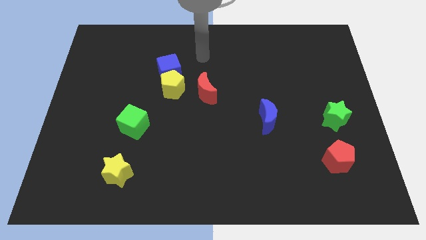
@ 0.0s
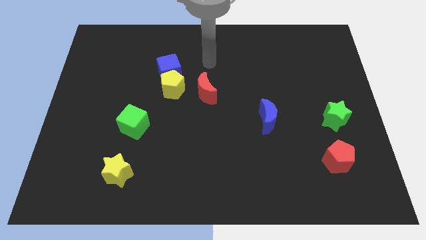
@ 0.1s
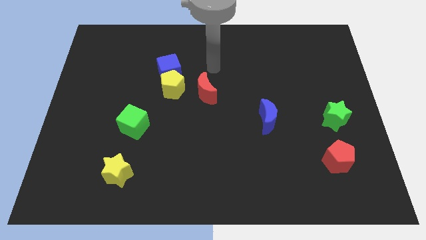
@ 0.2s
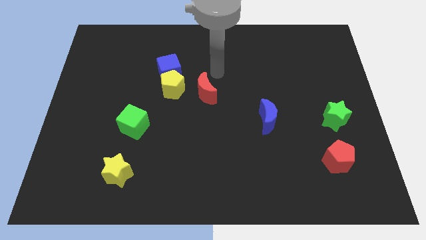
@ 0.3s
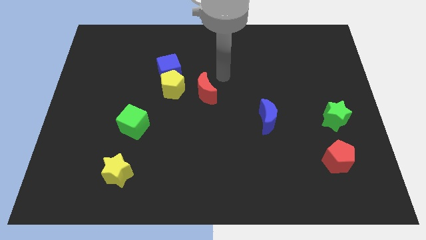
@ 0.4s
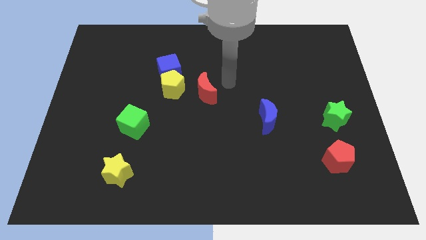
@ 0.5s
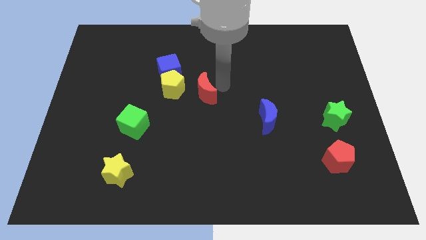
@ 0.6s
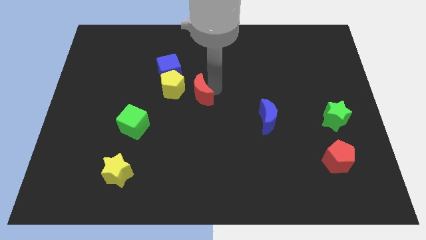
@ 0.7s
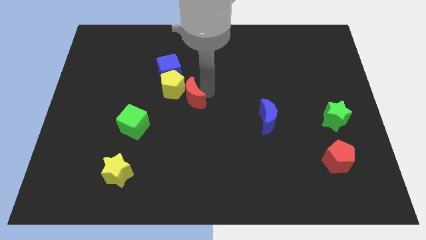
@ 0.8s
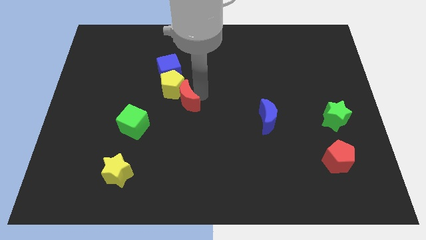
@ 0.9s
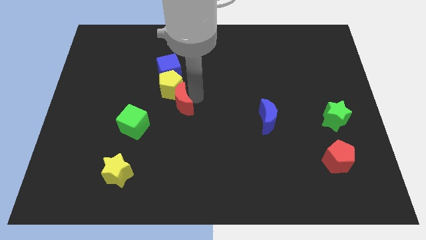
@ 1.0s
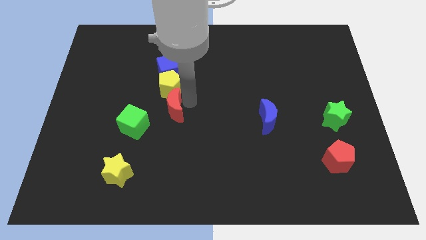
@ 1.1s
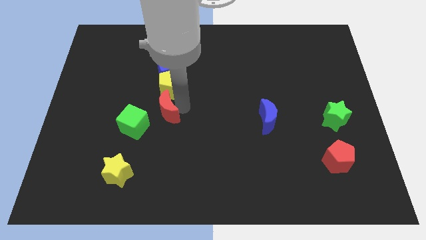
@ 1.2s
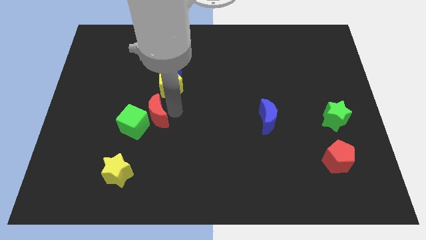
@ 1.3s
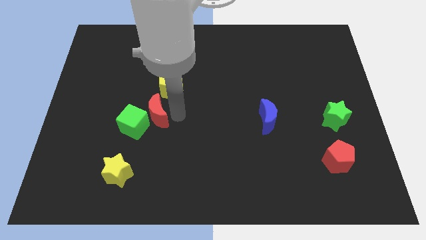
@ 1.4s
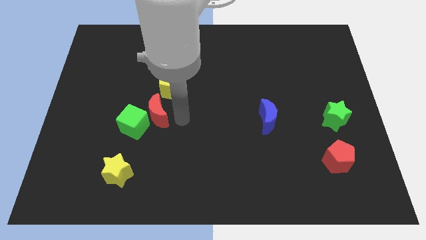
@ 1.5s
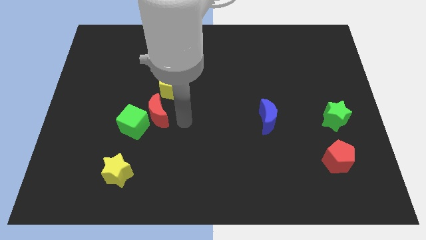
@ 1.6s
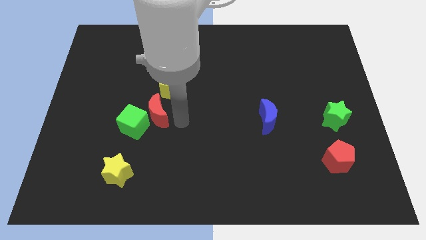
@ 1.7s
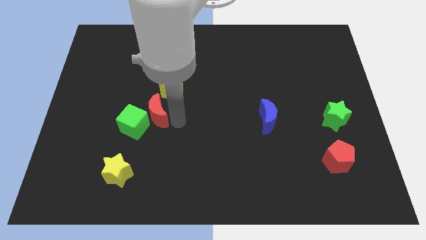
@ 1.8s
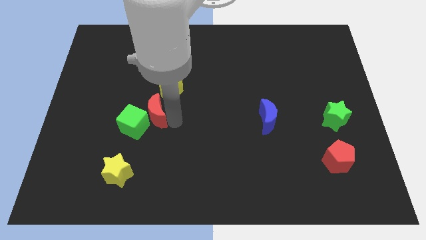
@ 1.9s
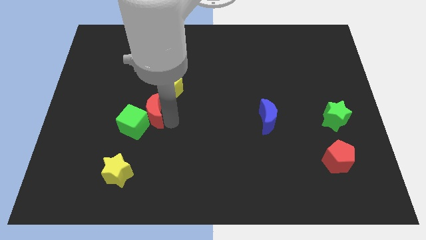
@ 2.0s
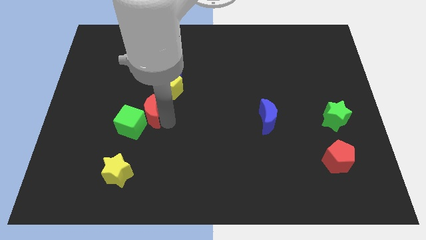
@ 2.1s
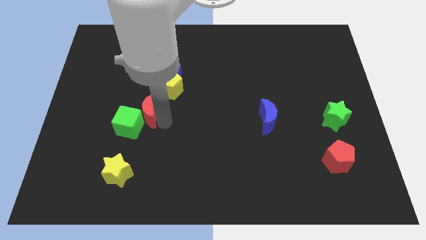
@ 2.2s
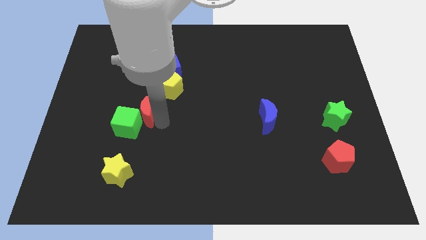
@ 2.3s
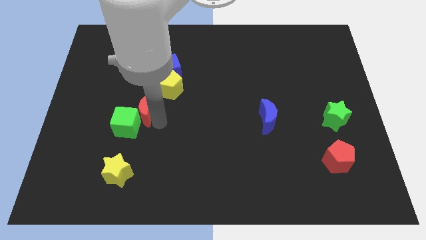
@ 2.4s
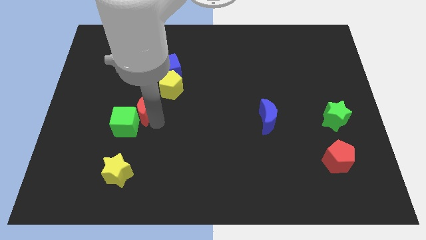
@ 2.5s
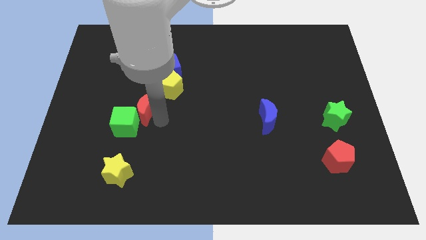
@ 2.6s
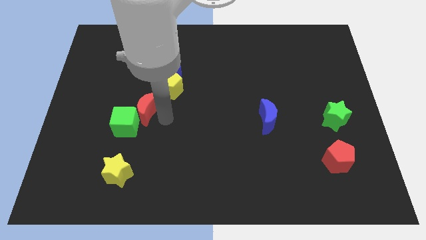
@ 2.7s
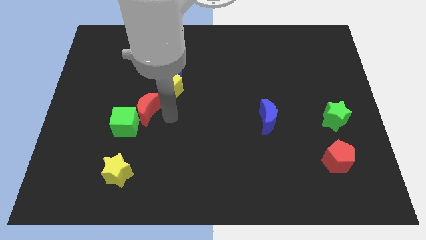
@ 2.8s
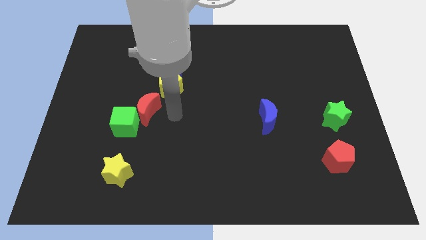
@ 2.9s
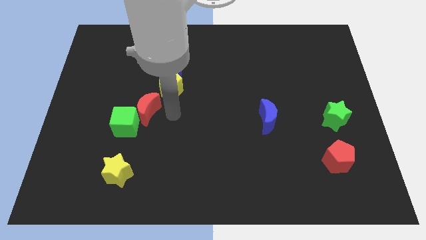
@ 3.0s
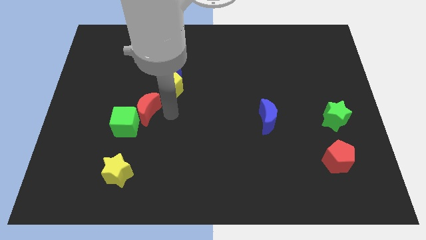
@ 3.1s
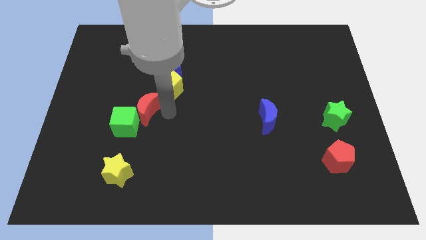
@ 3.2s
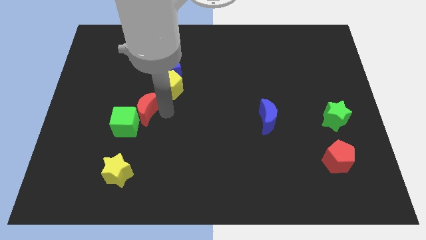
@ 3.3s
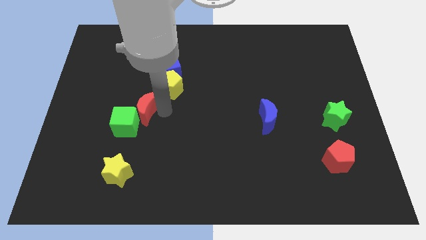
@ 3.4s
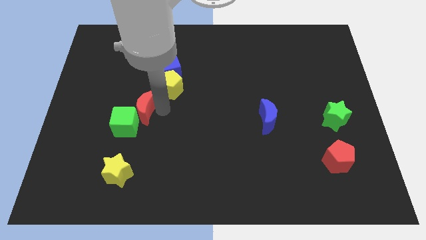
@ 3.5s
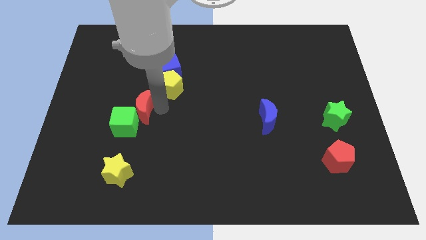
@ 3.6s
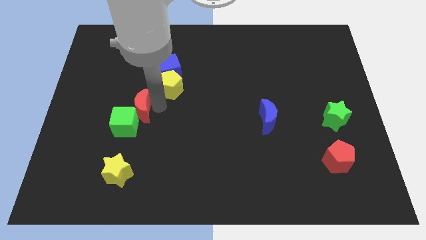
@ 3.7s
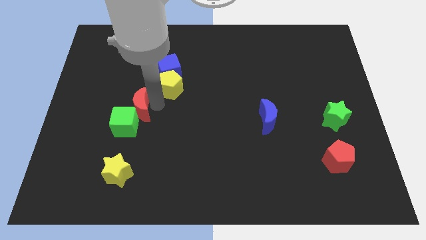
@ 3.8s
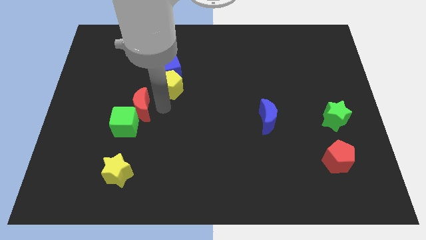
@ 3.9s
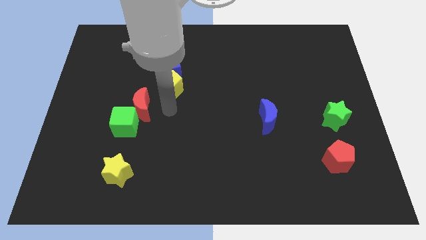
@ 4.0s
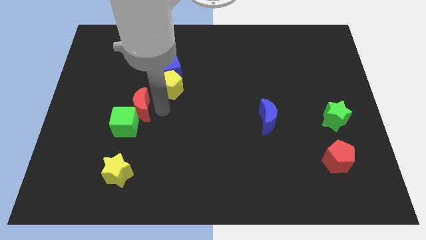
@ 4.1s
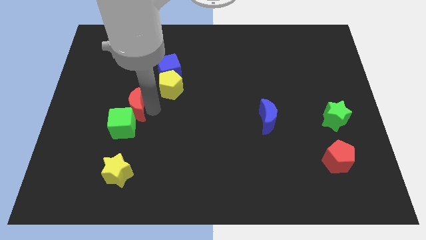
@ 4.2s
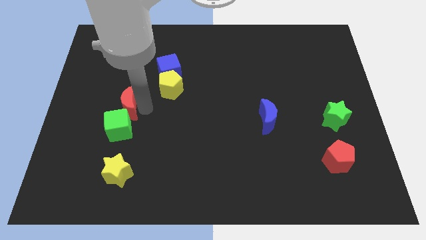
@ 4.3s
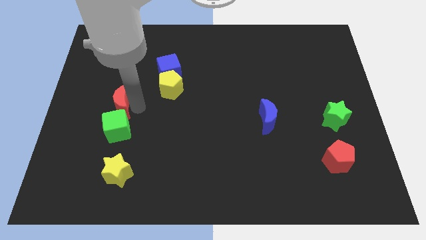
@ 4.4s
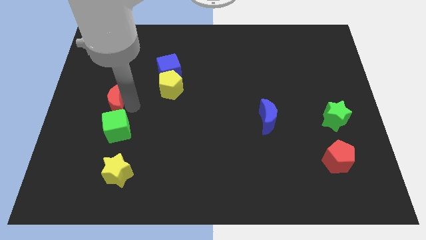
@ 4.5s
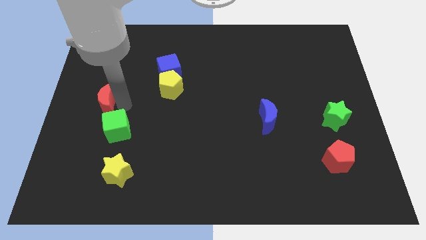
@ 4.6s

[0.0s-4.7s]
slide the red moon to the center left

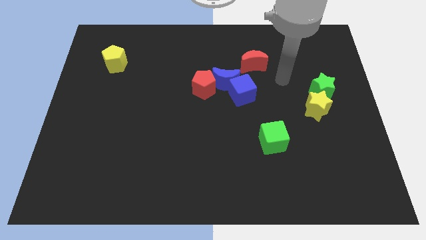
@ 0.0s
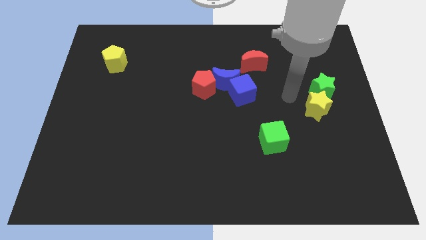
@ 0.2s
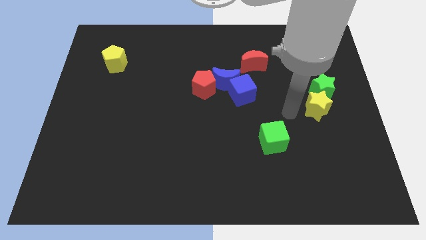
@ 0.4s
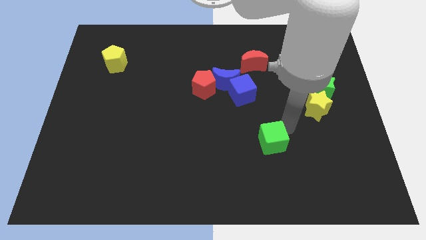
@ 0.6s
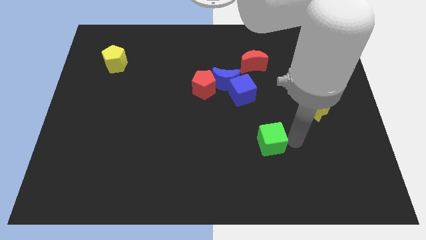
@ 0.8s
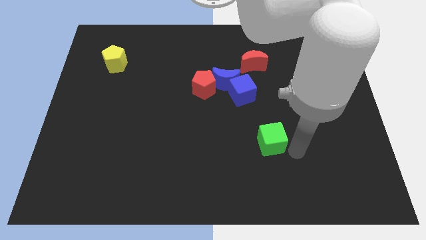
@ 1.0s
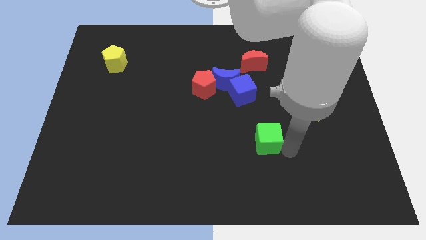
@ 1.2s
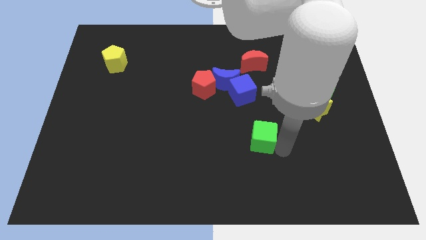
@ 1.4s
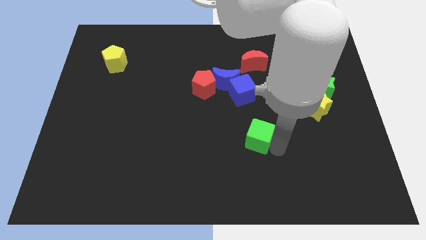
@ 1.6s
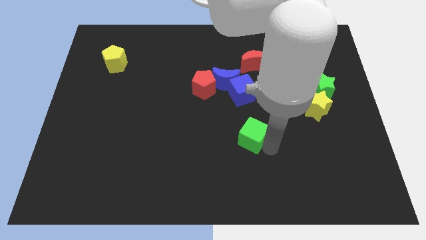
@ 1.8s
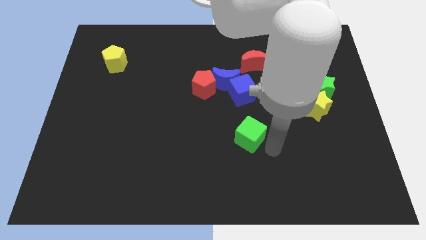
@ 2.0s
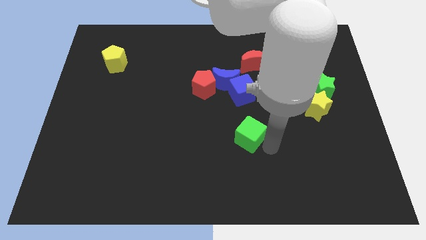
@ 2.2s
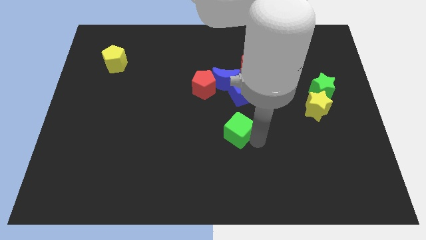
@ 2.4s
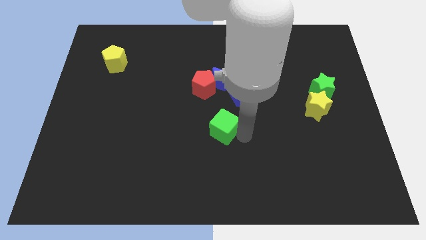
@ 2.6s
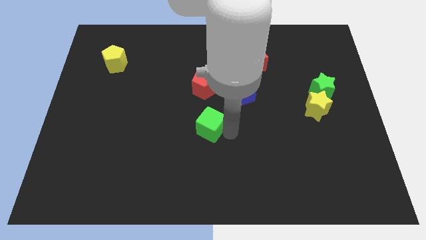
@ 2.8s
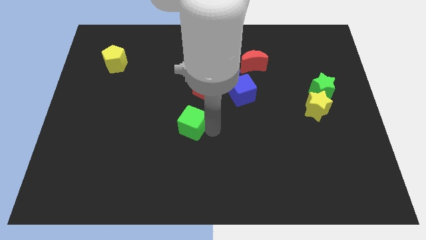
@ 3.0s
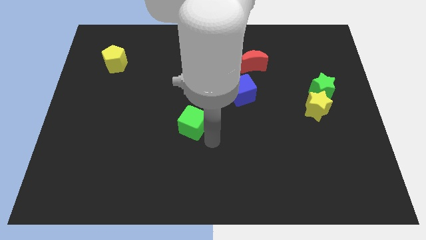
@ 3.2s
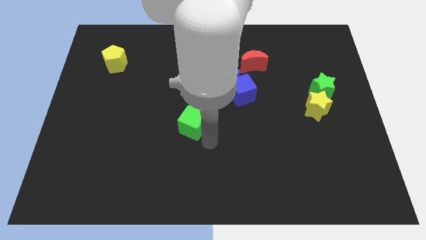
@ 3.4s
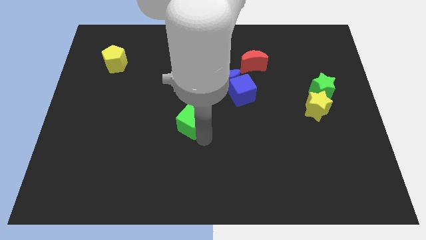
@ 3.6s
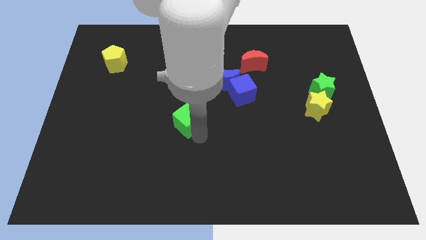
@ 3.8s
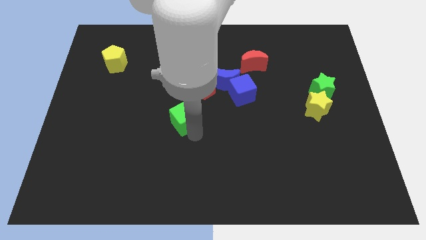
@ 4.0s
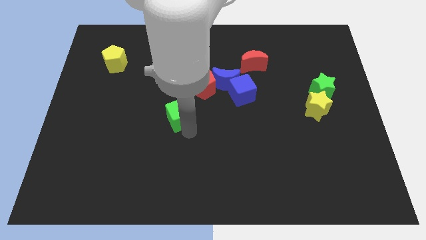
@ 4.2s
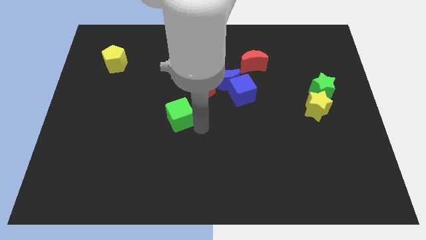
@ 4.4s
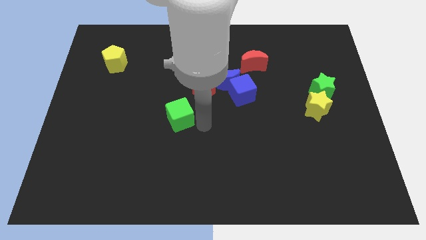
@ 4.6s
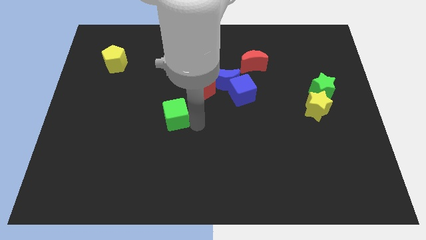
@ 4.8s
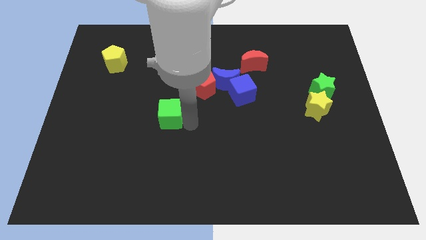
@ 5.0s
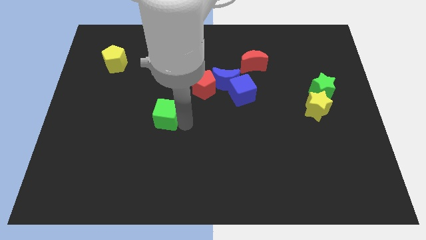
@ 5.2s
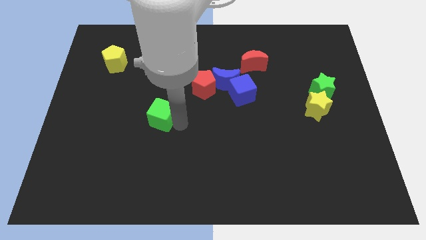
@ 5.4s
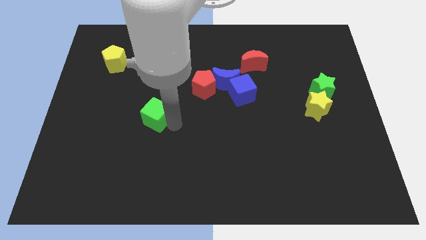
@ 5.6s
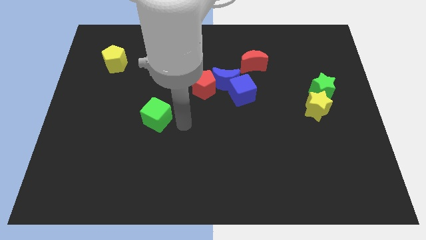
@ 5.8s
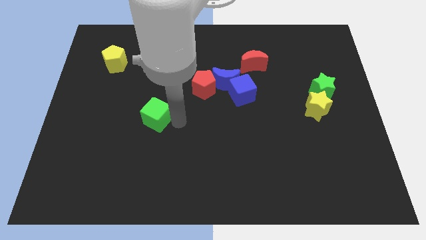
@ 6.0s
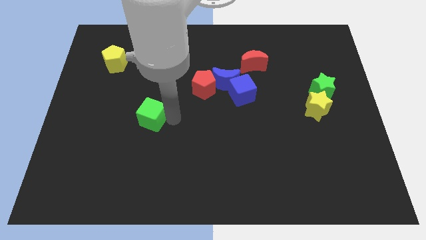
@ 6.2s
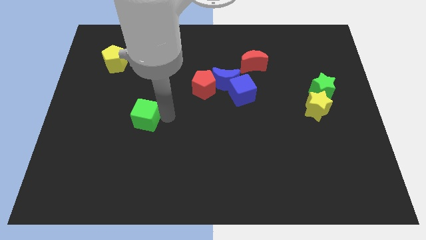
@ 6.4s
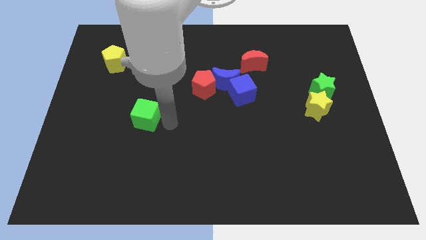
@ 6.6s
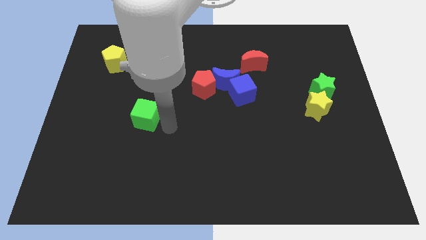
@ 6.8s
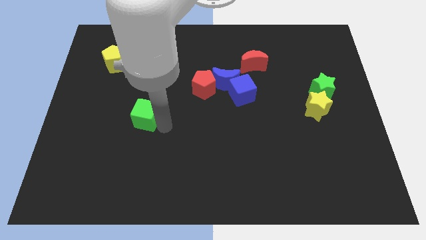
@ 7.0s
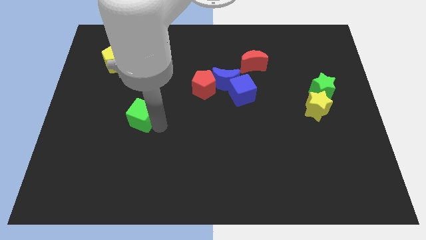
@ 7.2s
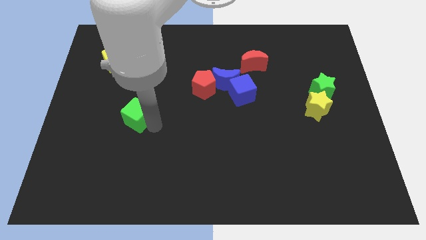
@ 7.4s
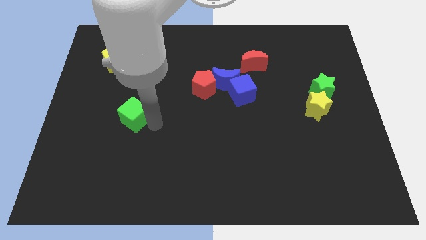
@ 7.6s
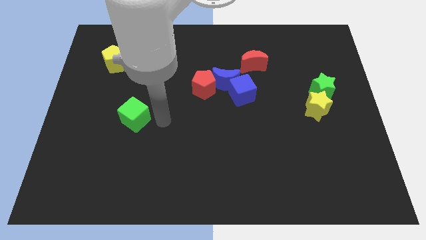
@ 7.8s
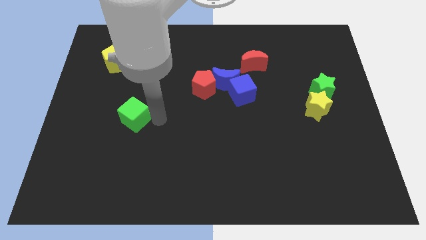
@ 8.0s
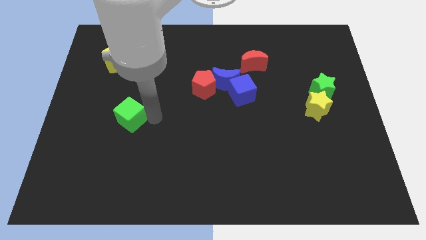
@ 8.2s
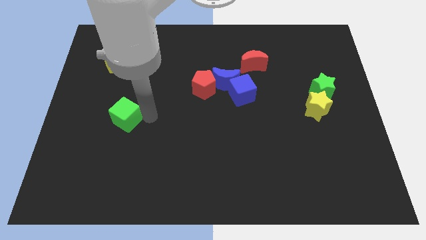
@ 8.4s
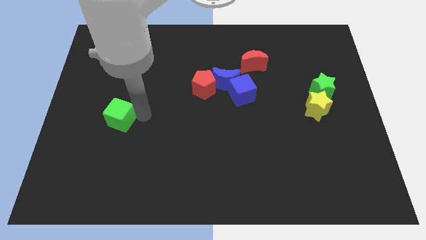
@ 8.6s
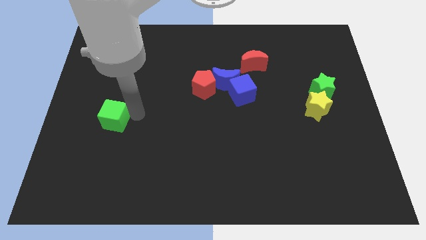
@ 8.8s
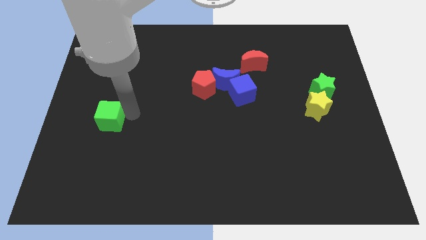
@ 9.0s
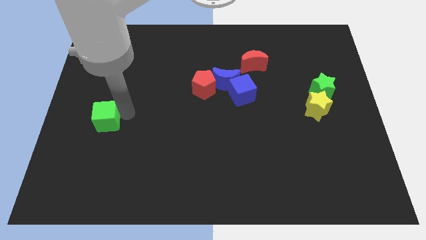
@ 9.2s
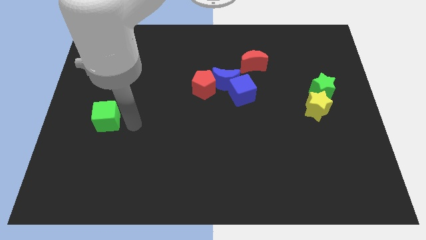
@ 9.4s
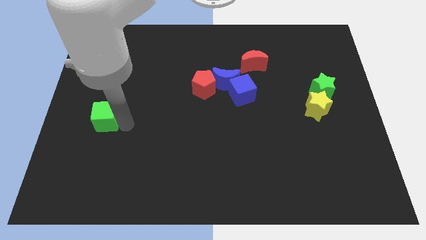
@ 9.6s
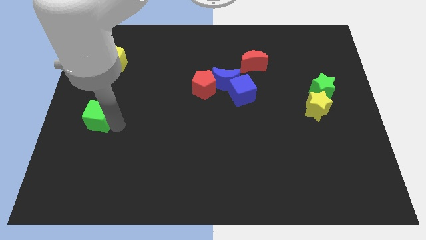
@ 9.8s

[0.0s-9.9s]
slide the green cube to the left side
